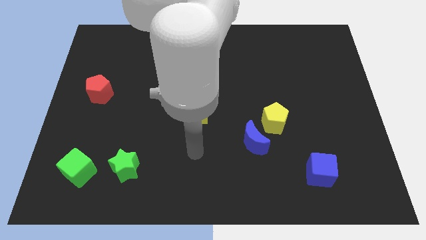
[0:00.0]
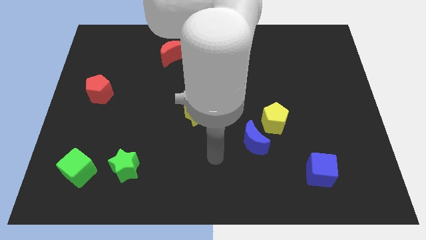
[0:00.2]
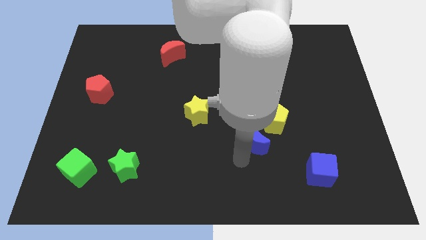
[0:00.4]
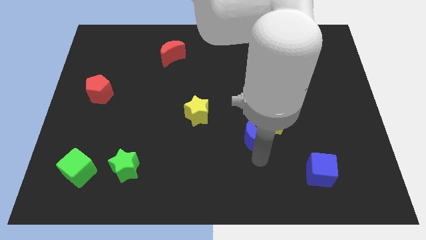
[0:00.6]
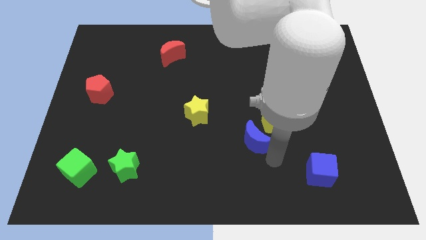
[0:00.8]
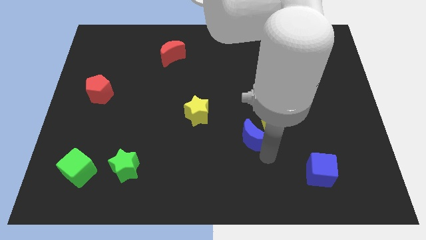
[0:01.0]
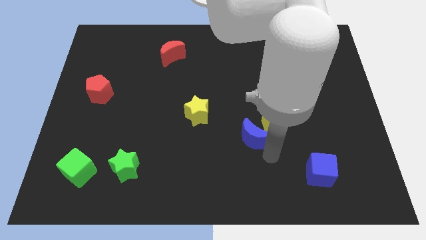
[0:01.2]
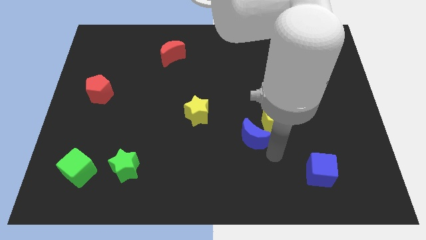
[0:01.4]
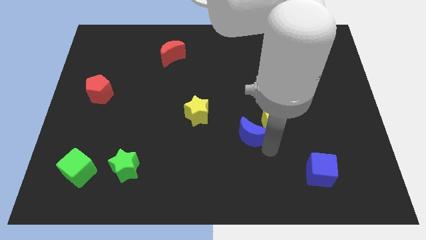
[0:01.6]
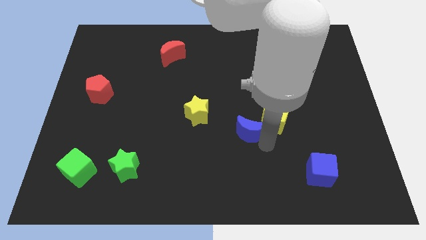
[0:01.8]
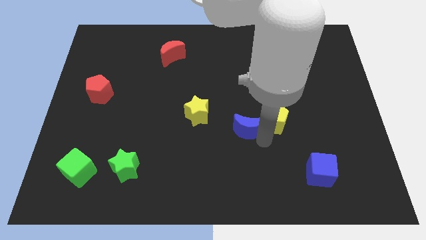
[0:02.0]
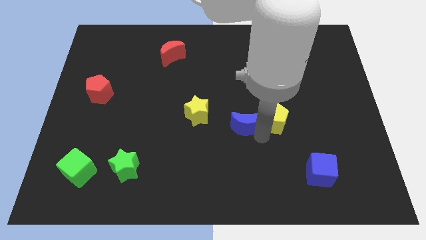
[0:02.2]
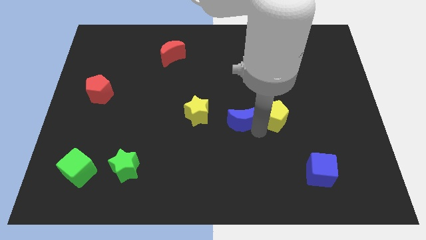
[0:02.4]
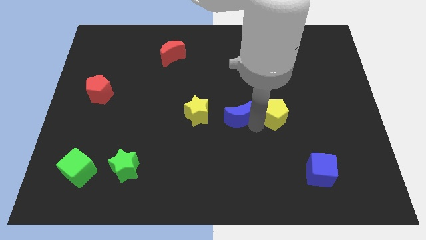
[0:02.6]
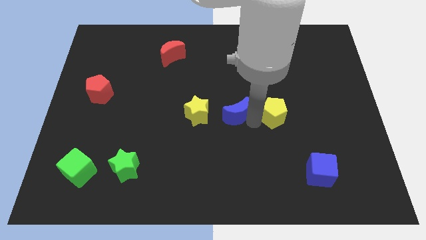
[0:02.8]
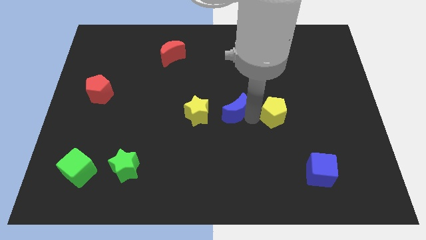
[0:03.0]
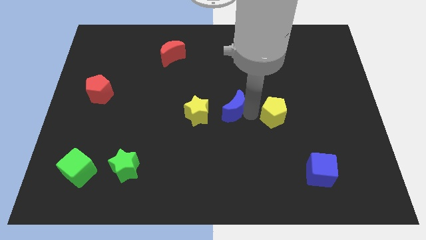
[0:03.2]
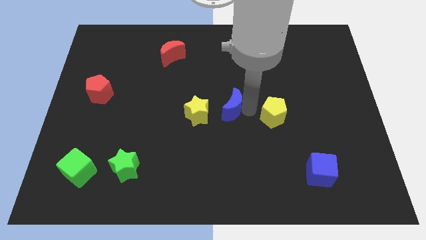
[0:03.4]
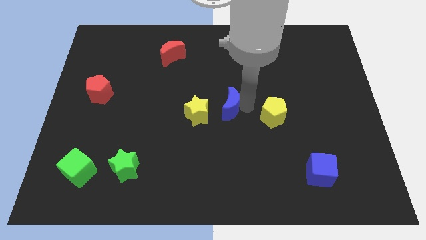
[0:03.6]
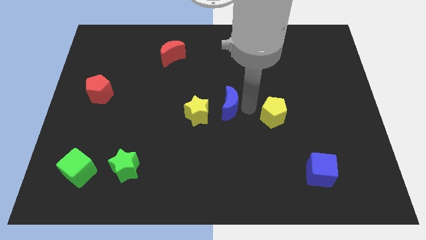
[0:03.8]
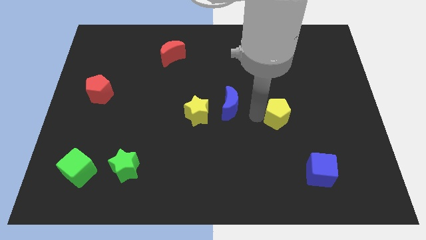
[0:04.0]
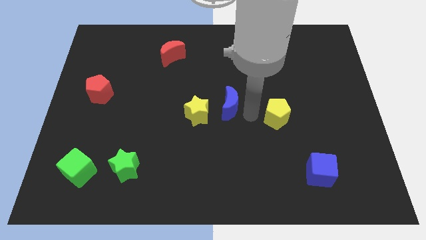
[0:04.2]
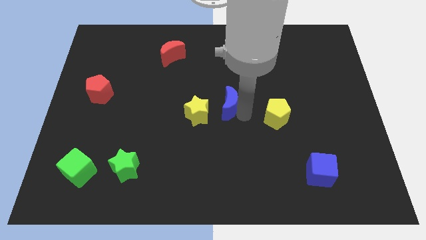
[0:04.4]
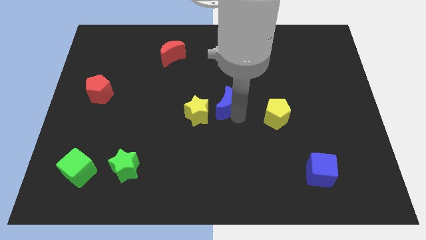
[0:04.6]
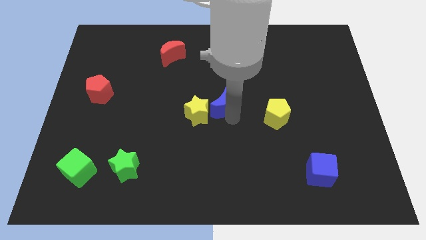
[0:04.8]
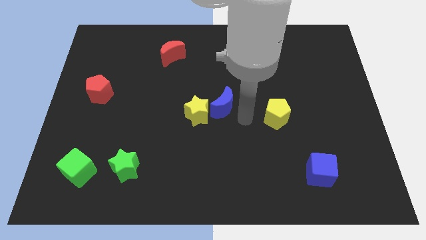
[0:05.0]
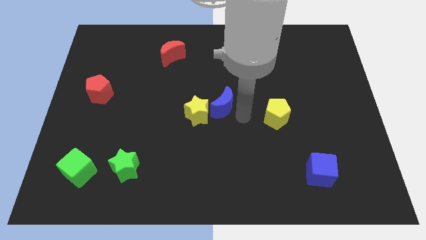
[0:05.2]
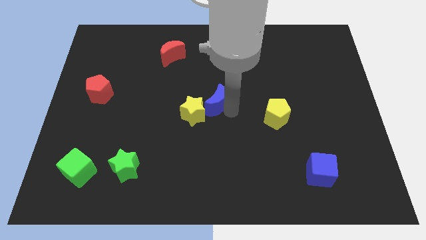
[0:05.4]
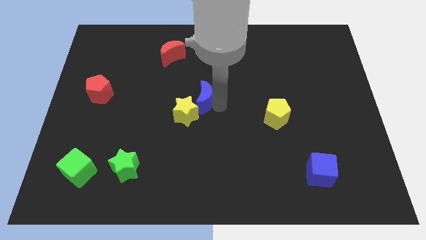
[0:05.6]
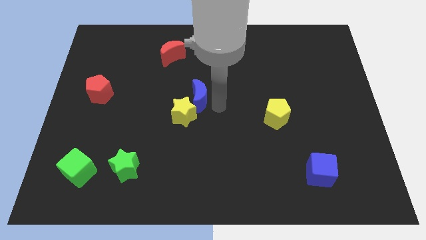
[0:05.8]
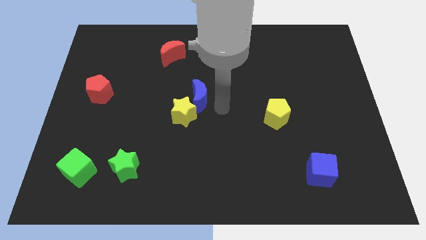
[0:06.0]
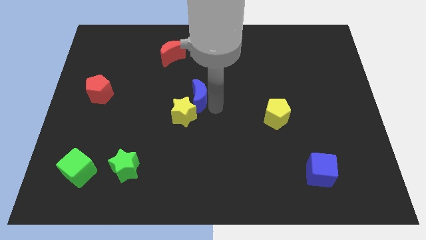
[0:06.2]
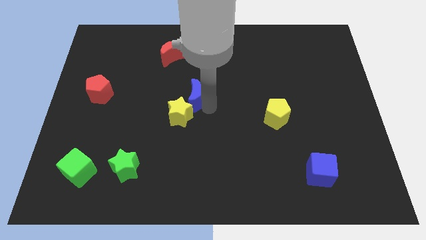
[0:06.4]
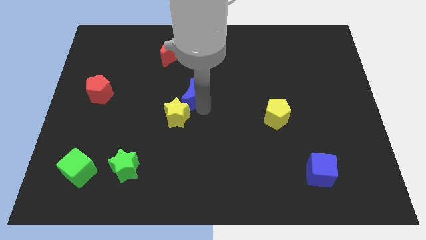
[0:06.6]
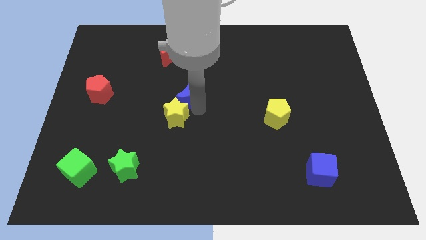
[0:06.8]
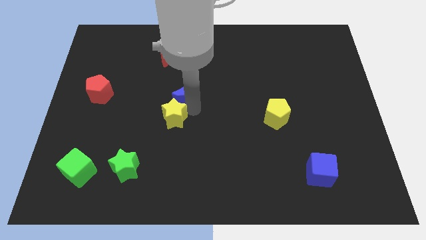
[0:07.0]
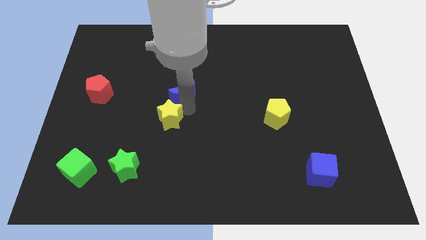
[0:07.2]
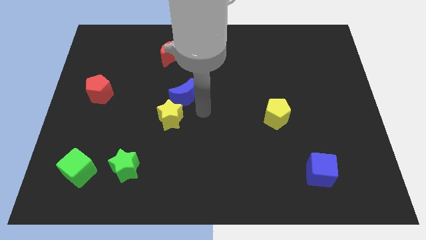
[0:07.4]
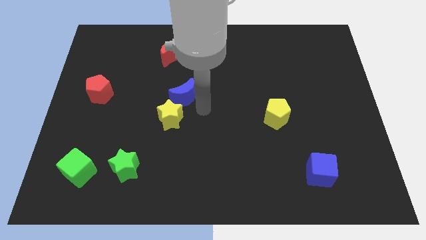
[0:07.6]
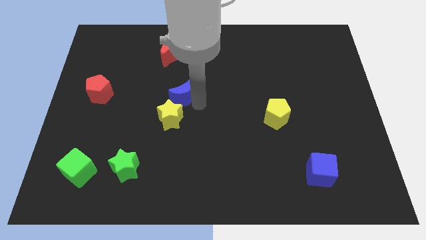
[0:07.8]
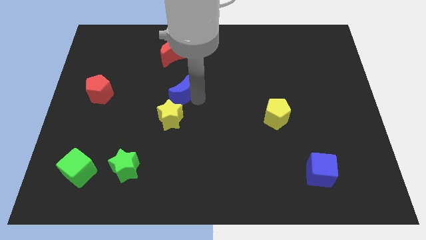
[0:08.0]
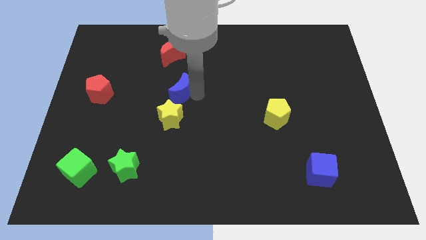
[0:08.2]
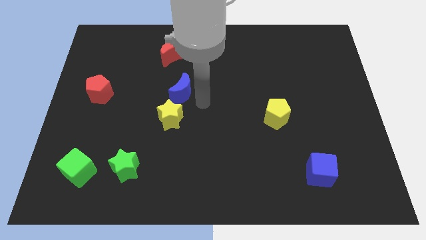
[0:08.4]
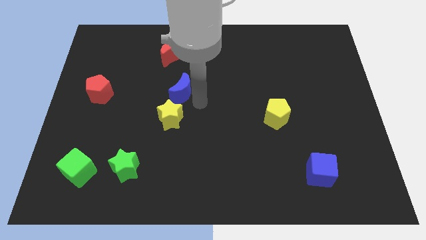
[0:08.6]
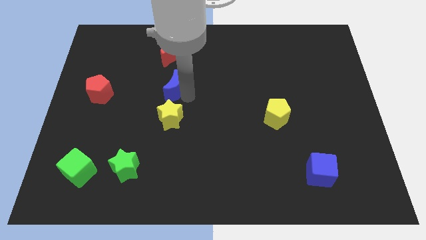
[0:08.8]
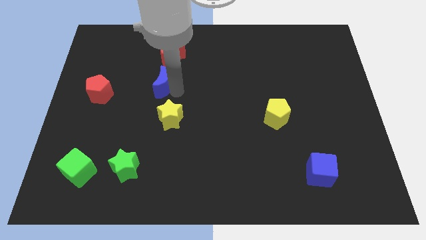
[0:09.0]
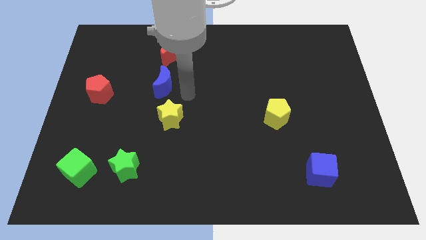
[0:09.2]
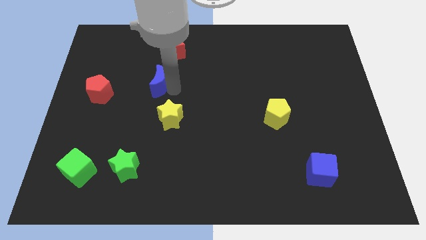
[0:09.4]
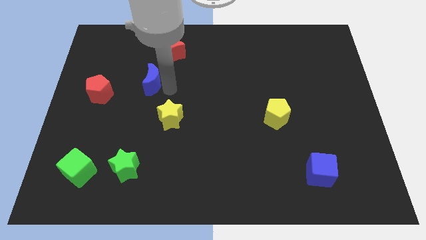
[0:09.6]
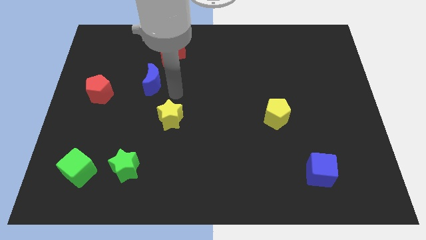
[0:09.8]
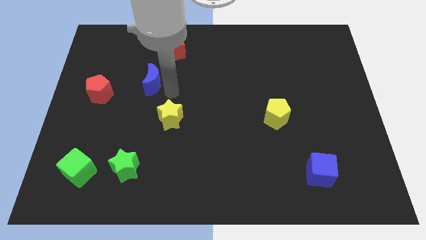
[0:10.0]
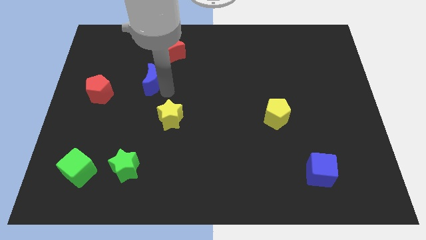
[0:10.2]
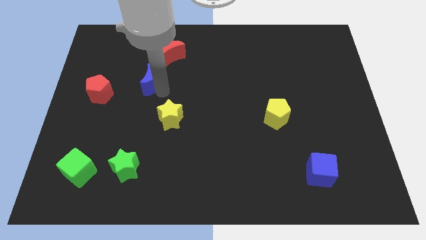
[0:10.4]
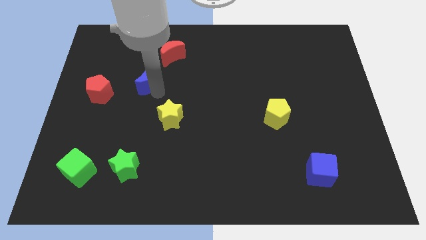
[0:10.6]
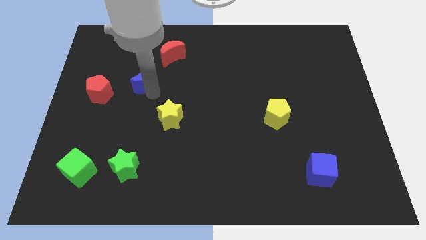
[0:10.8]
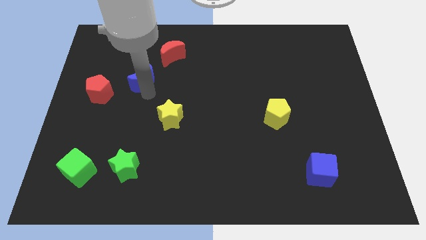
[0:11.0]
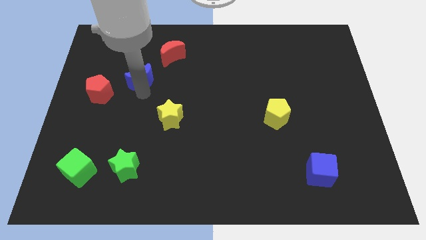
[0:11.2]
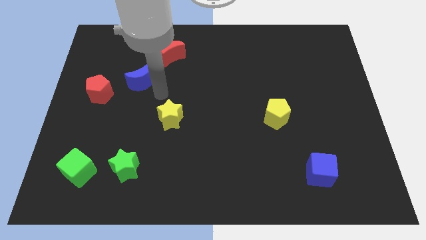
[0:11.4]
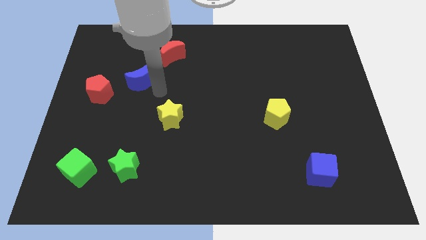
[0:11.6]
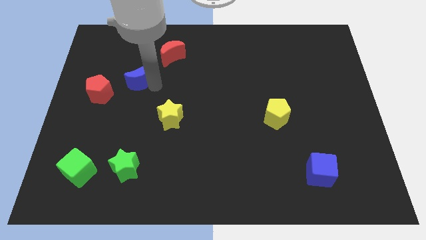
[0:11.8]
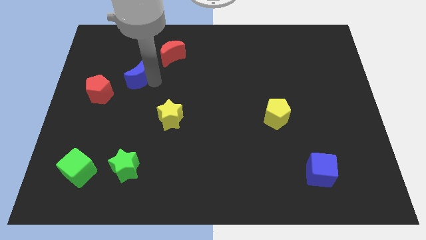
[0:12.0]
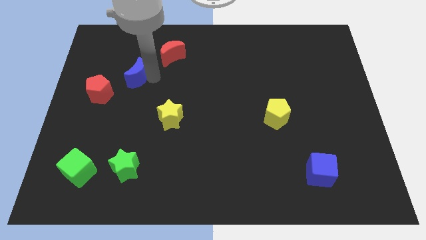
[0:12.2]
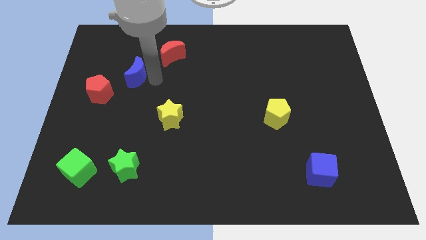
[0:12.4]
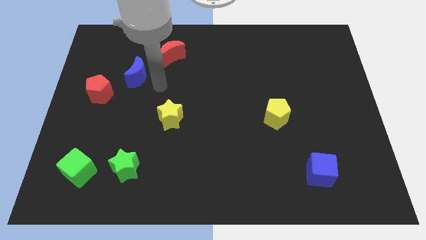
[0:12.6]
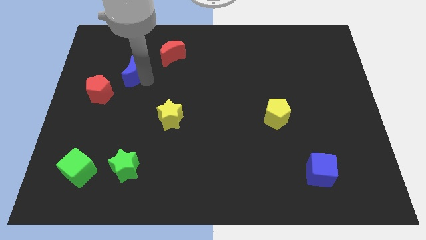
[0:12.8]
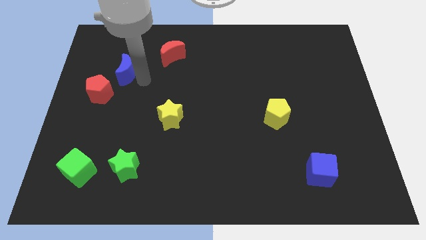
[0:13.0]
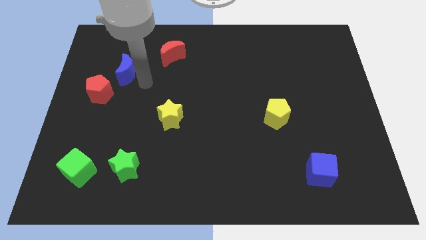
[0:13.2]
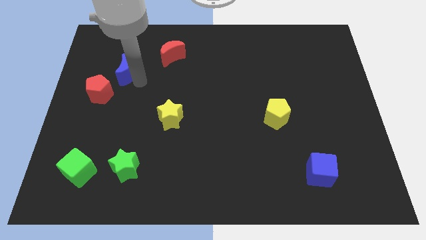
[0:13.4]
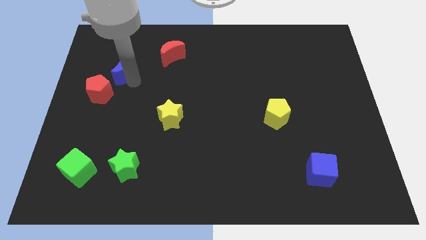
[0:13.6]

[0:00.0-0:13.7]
put the blue moon above the red pentagon
